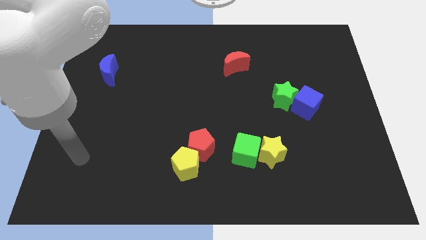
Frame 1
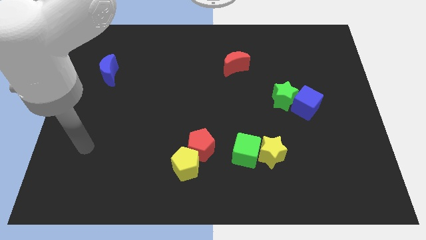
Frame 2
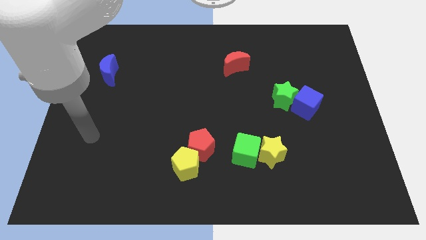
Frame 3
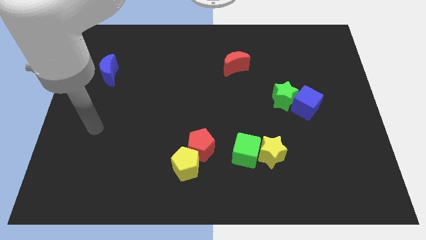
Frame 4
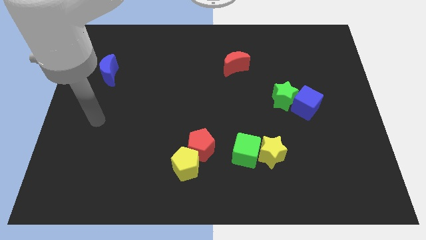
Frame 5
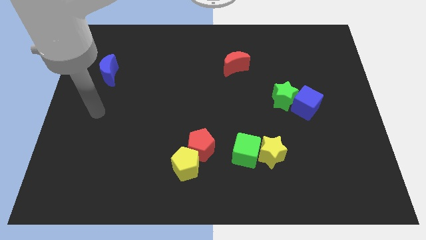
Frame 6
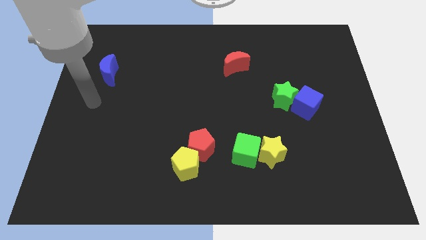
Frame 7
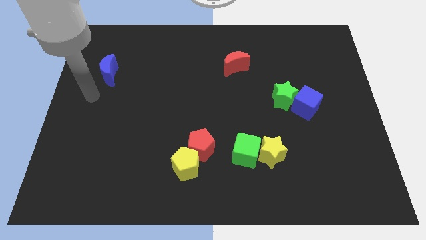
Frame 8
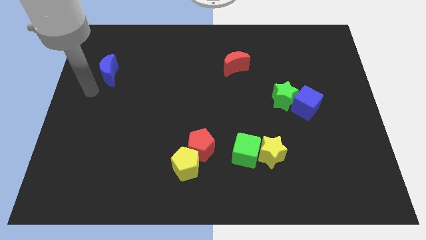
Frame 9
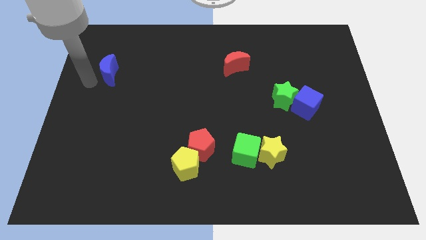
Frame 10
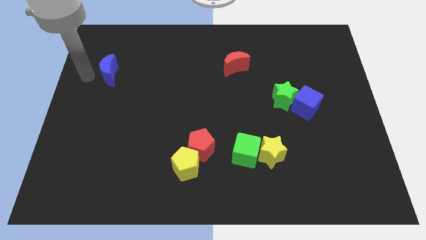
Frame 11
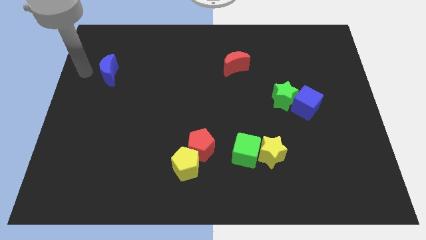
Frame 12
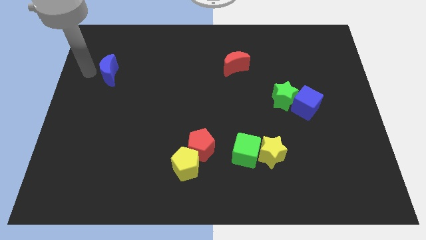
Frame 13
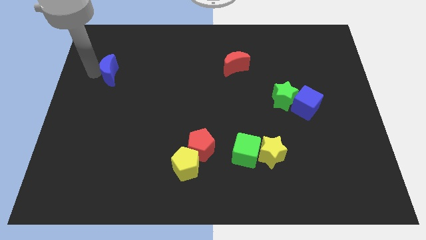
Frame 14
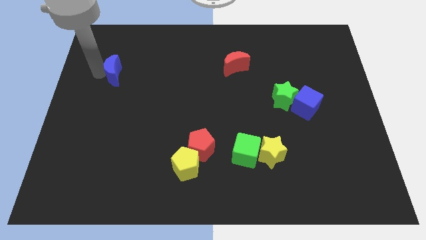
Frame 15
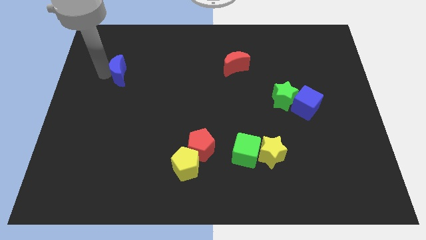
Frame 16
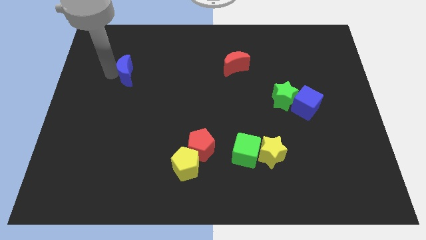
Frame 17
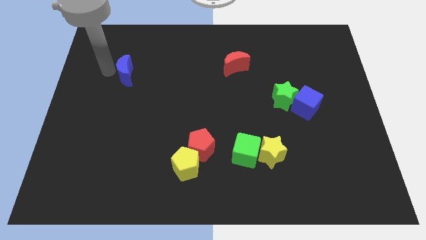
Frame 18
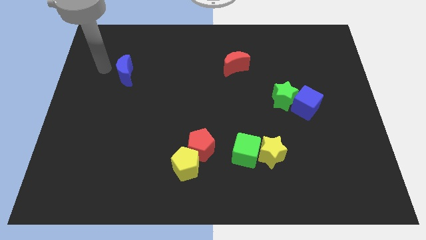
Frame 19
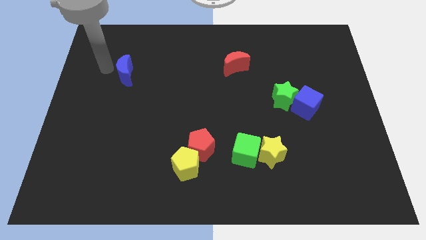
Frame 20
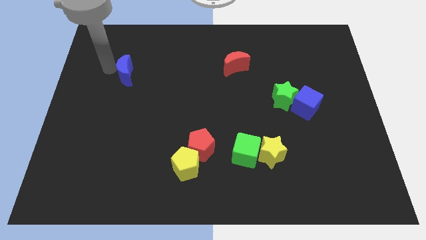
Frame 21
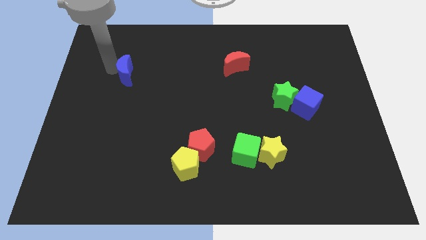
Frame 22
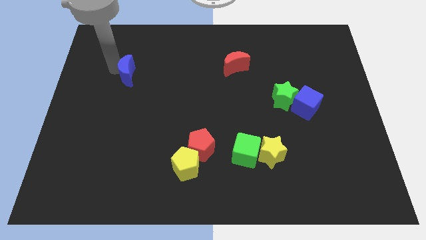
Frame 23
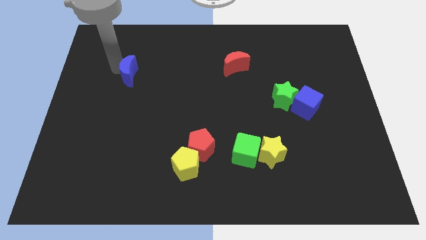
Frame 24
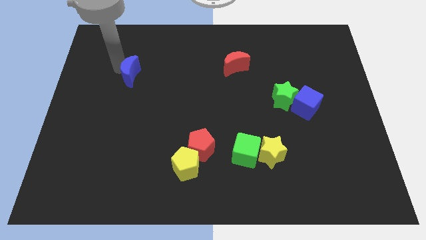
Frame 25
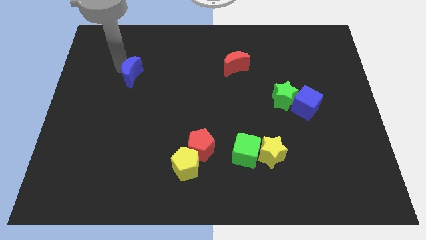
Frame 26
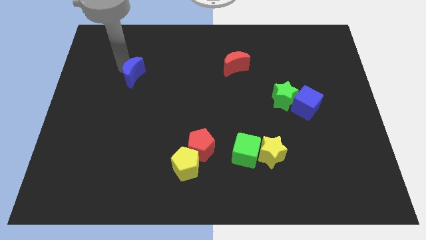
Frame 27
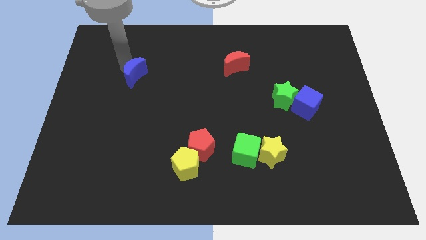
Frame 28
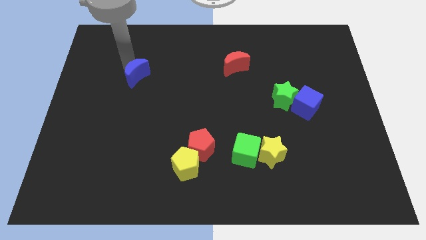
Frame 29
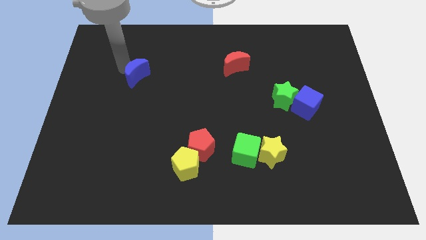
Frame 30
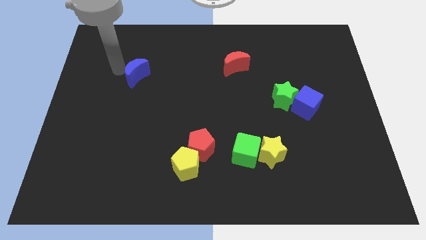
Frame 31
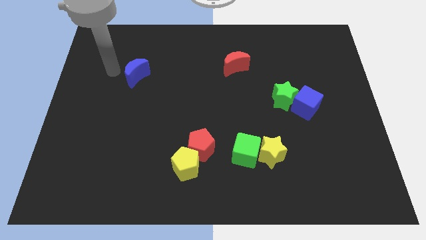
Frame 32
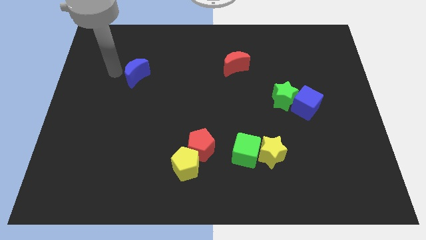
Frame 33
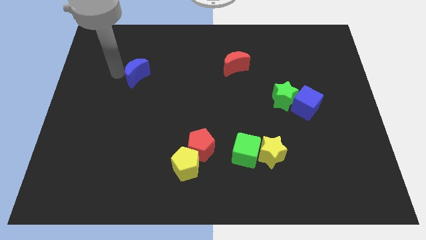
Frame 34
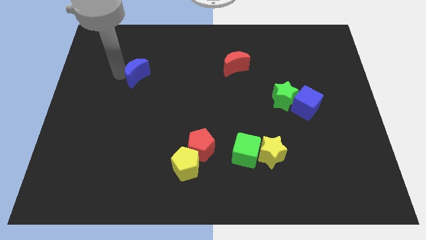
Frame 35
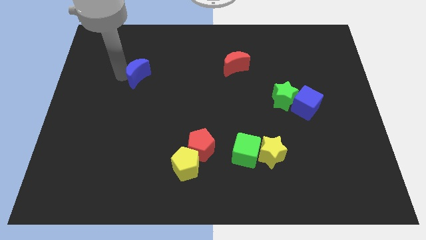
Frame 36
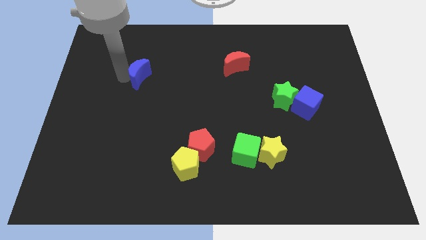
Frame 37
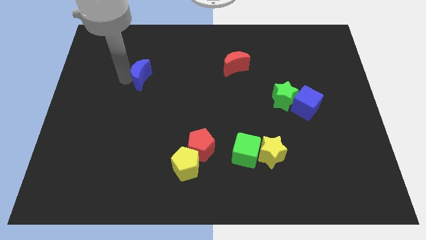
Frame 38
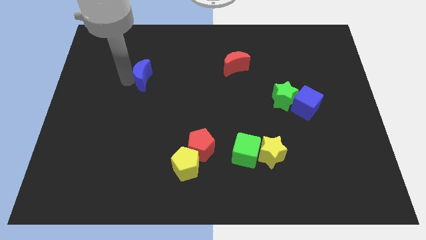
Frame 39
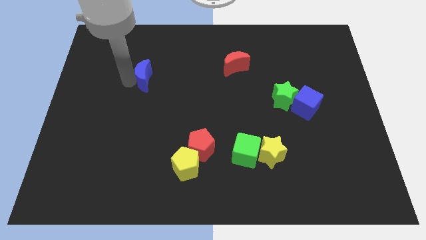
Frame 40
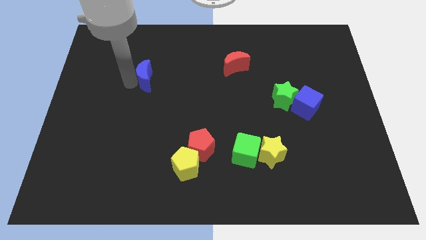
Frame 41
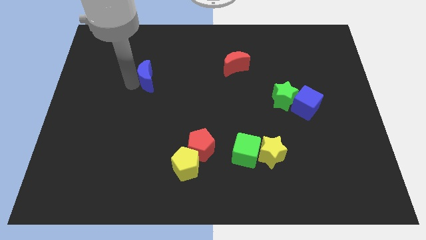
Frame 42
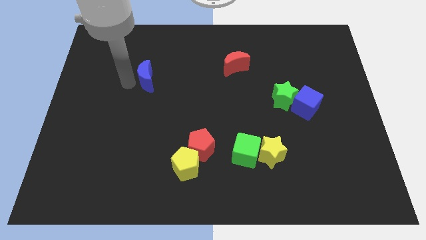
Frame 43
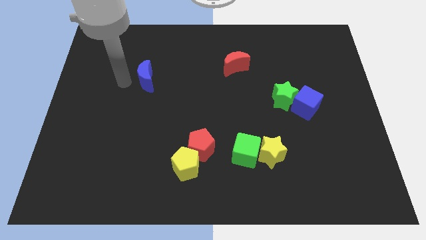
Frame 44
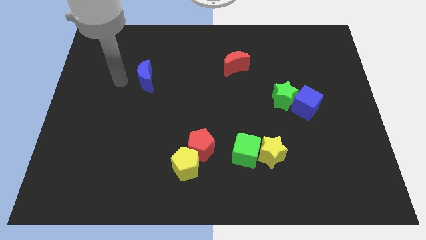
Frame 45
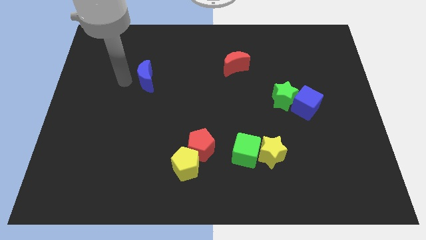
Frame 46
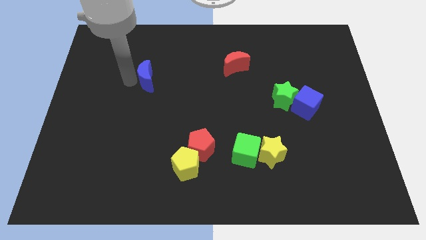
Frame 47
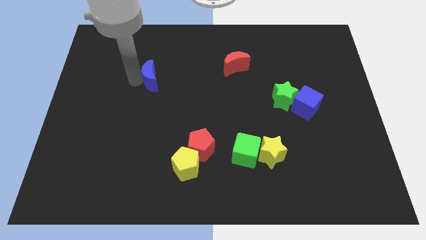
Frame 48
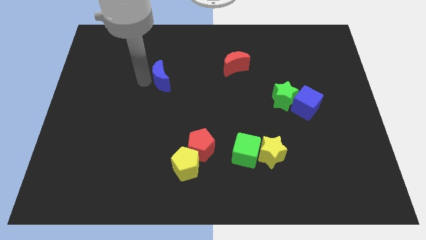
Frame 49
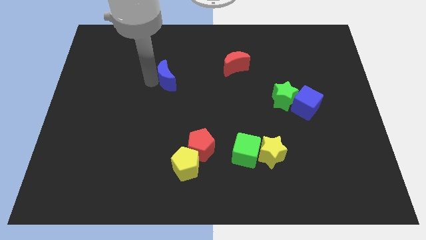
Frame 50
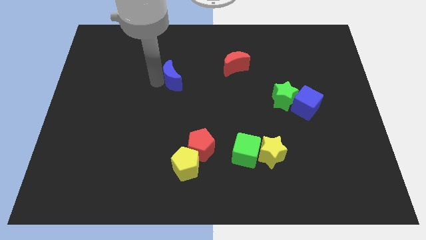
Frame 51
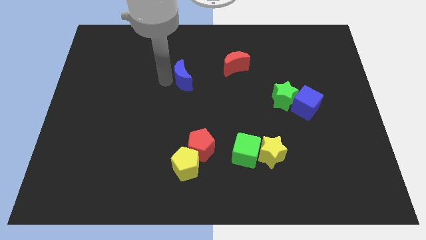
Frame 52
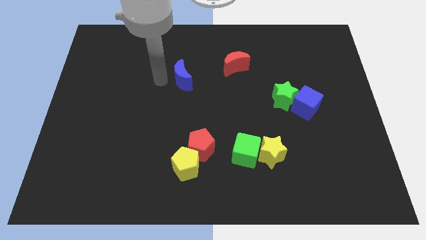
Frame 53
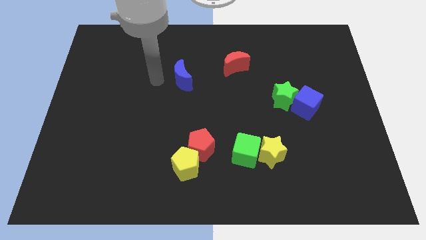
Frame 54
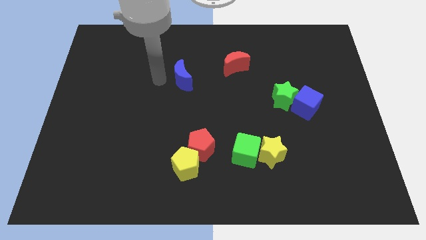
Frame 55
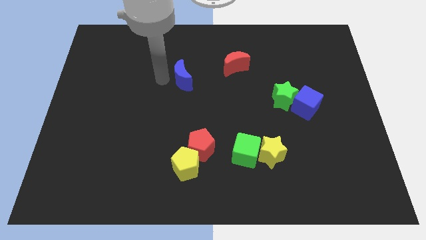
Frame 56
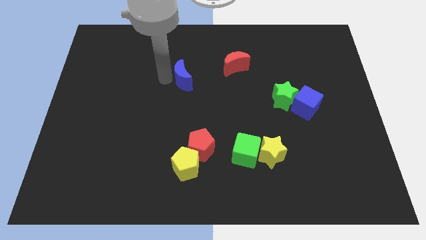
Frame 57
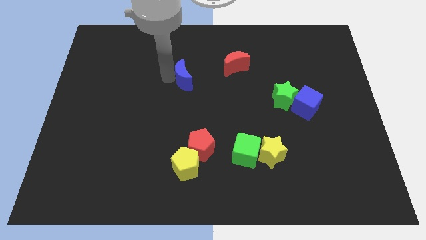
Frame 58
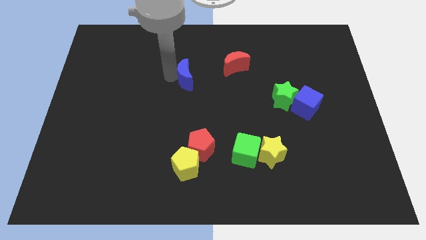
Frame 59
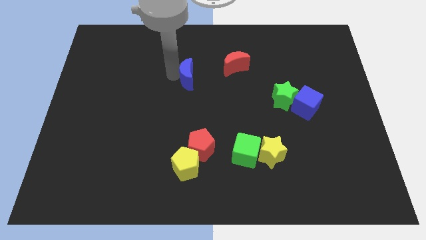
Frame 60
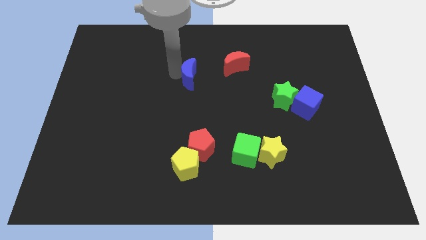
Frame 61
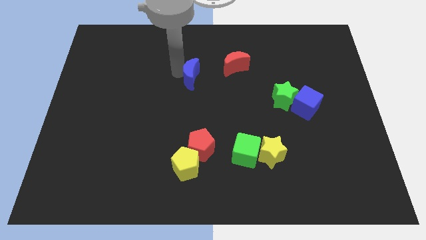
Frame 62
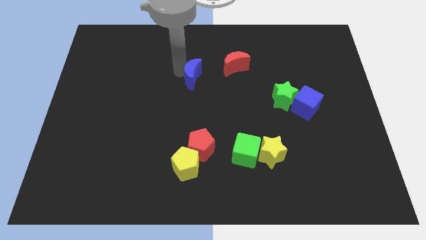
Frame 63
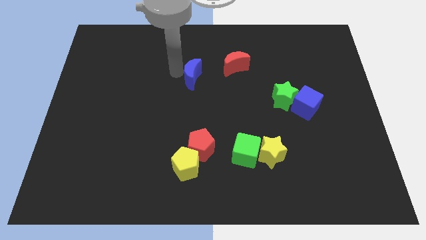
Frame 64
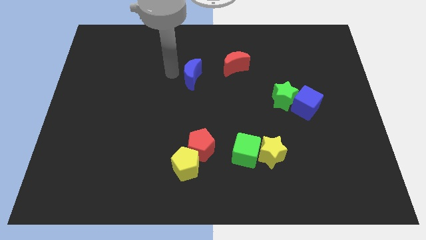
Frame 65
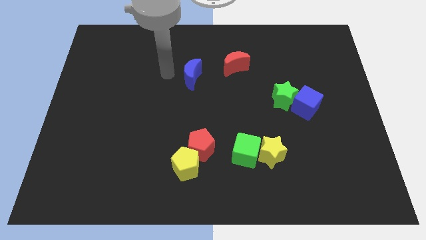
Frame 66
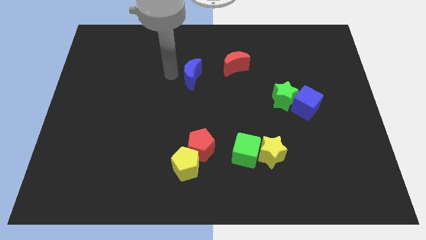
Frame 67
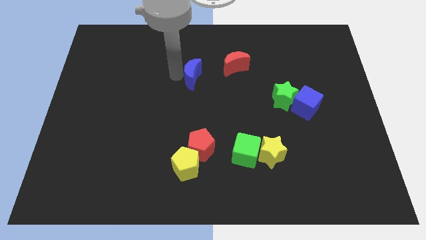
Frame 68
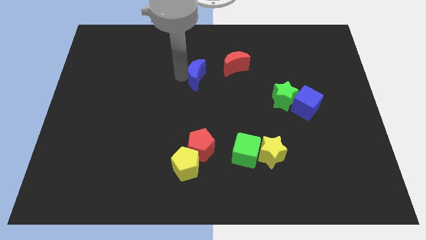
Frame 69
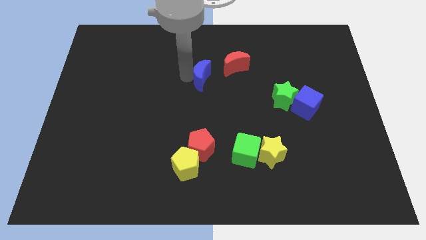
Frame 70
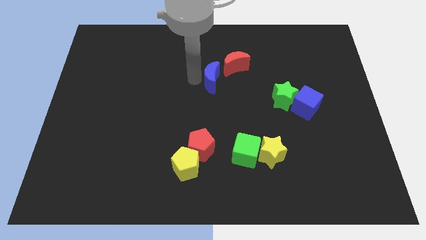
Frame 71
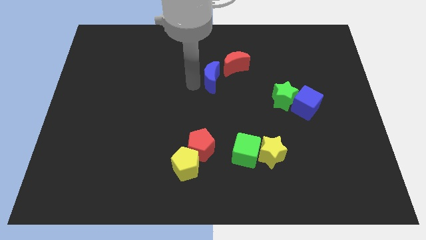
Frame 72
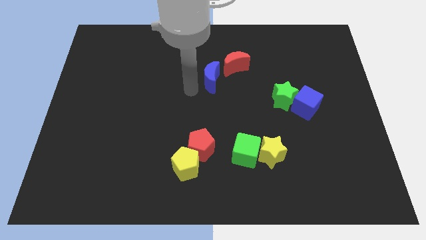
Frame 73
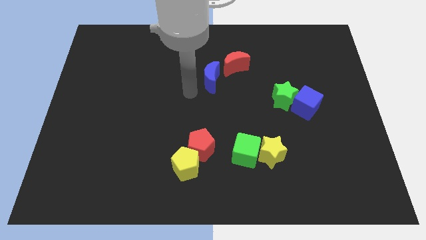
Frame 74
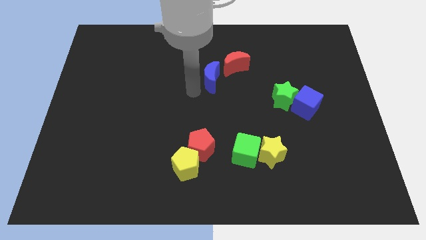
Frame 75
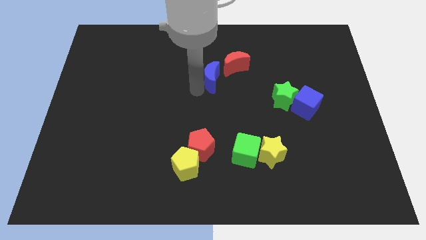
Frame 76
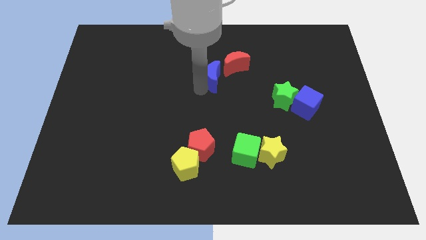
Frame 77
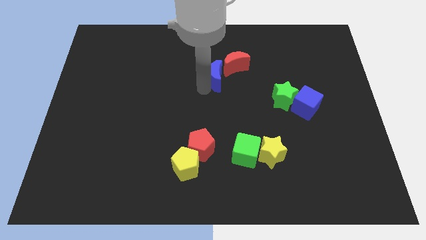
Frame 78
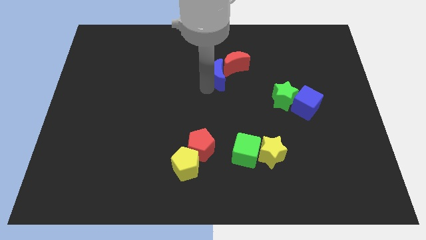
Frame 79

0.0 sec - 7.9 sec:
move the blue moon close to the red moon
